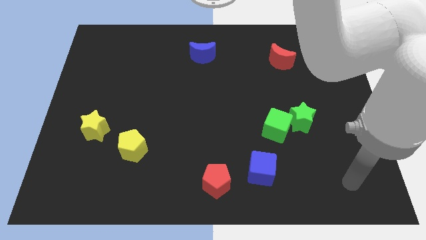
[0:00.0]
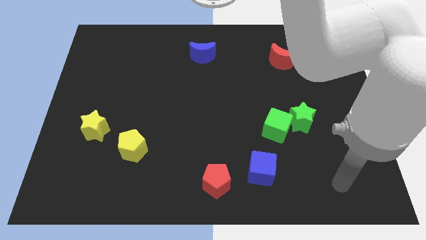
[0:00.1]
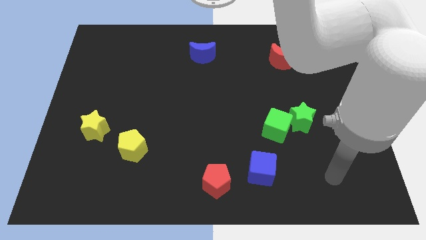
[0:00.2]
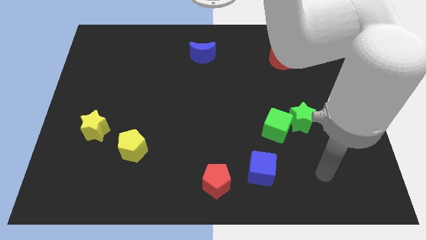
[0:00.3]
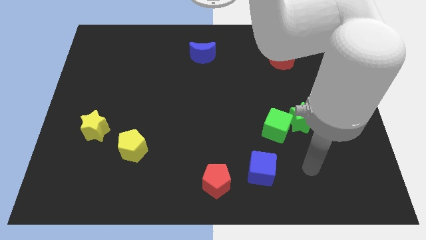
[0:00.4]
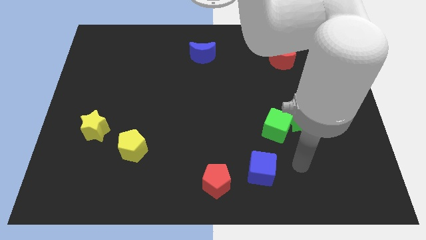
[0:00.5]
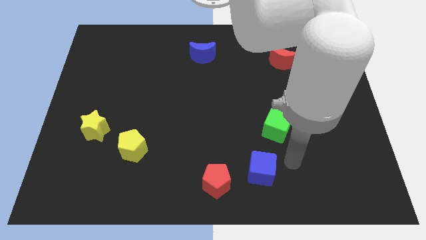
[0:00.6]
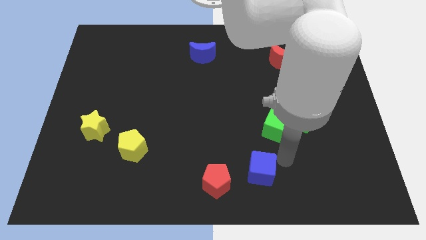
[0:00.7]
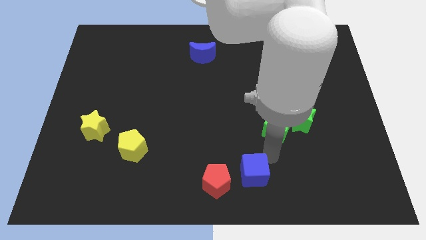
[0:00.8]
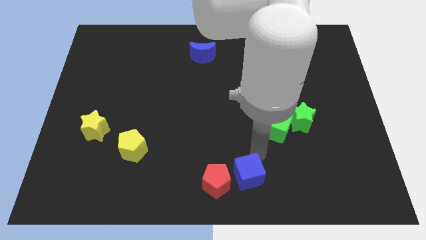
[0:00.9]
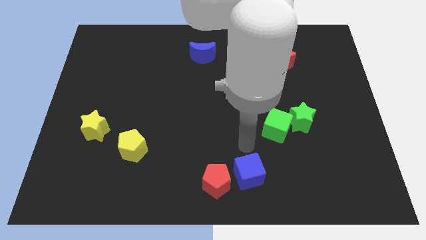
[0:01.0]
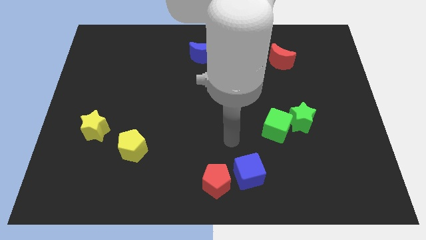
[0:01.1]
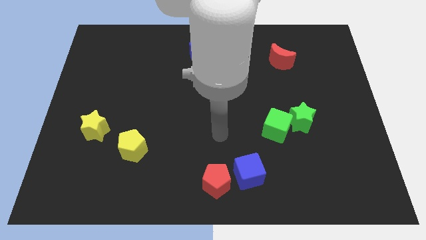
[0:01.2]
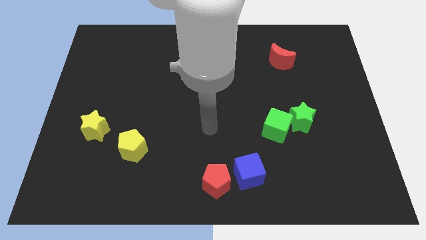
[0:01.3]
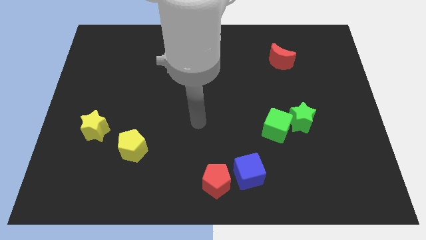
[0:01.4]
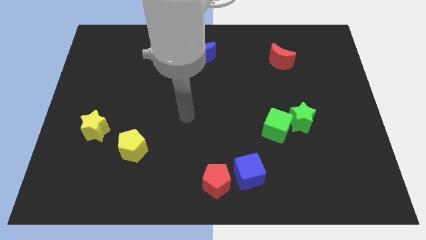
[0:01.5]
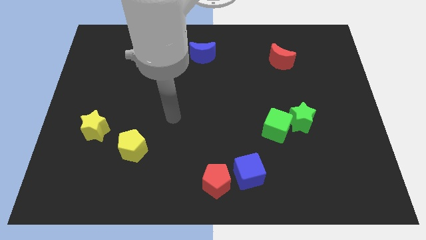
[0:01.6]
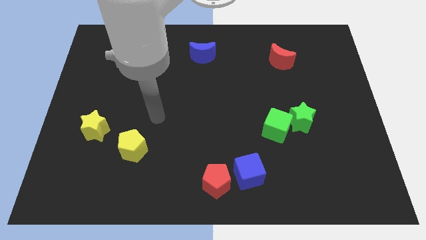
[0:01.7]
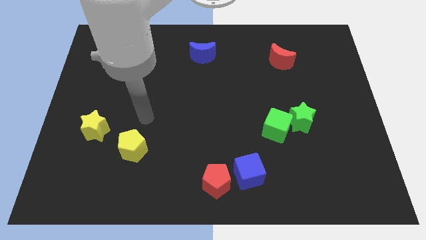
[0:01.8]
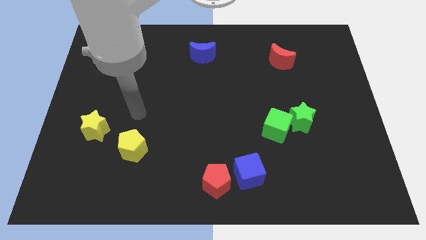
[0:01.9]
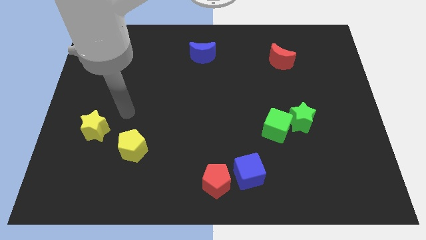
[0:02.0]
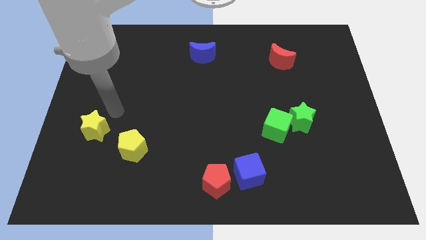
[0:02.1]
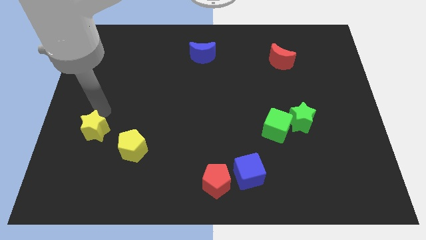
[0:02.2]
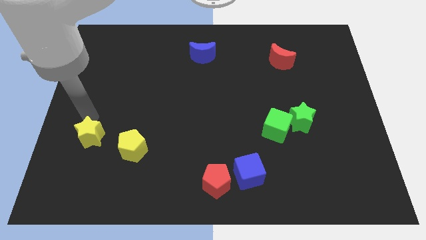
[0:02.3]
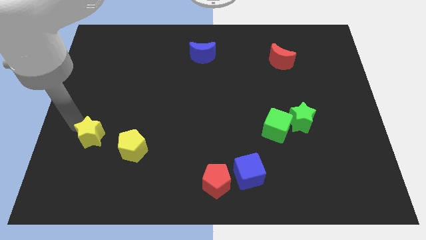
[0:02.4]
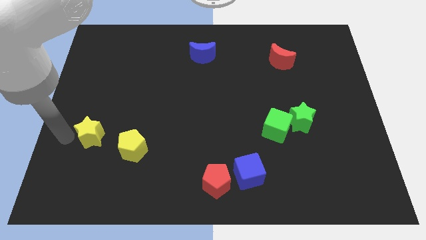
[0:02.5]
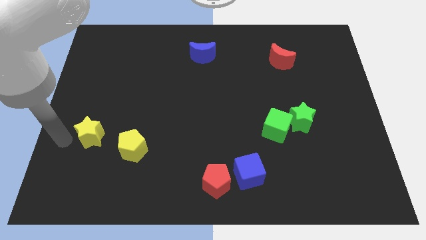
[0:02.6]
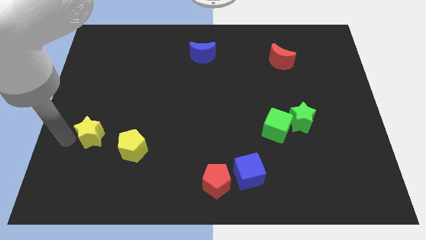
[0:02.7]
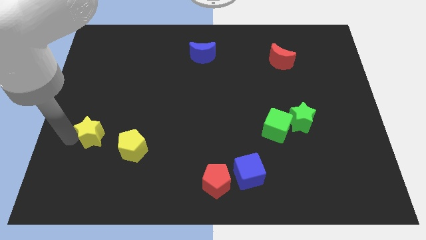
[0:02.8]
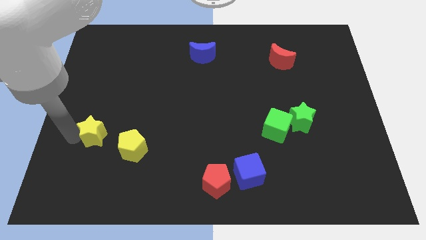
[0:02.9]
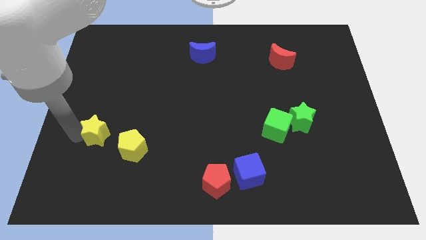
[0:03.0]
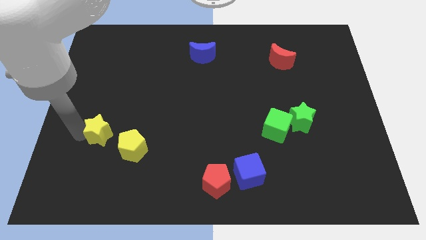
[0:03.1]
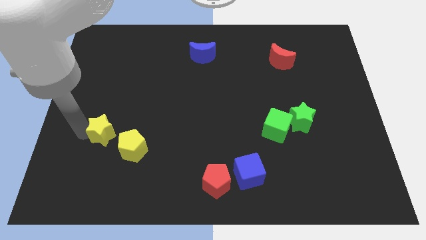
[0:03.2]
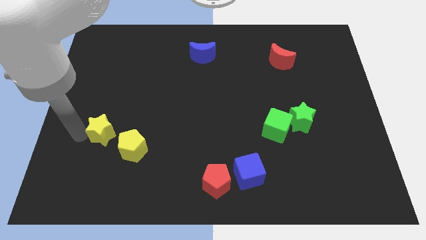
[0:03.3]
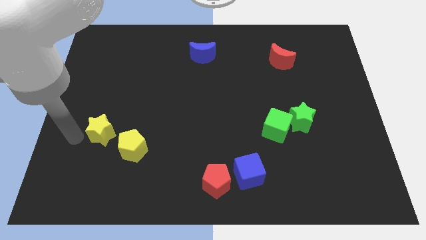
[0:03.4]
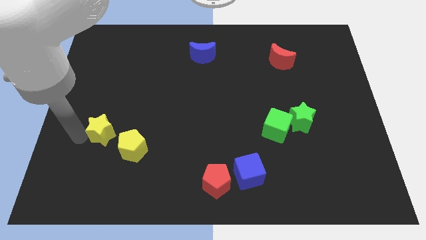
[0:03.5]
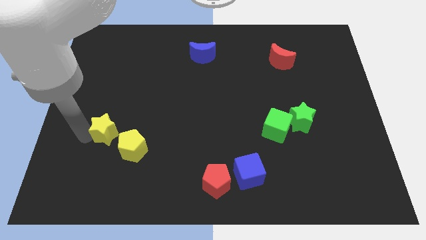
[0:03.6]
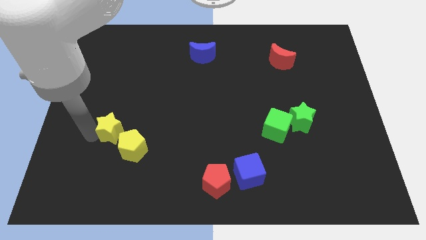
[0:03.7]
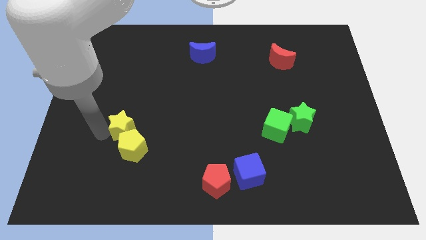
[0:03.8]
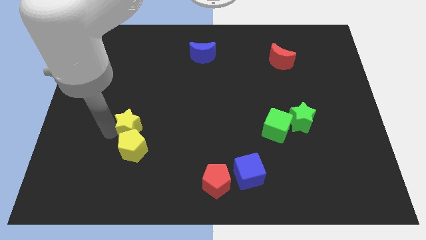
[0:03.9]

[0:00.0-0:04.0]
slightly move the yellow star right

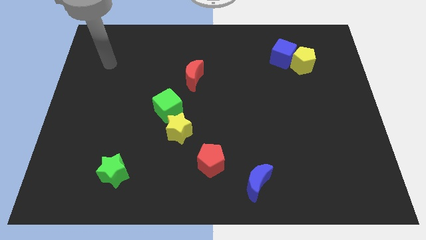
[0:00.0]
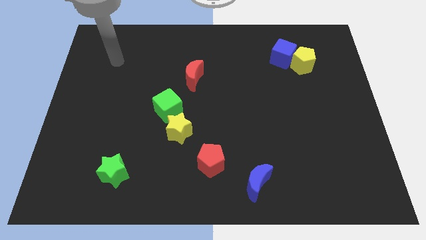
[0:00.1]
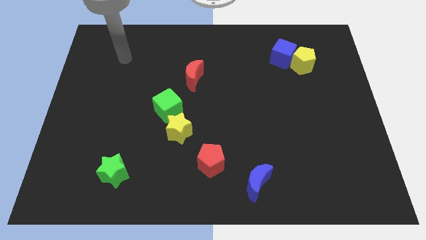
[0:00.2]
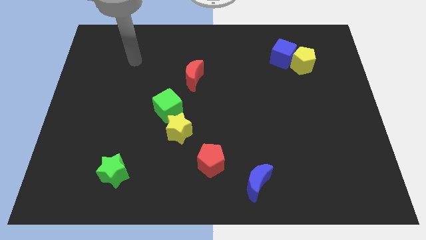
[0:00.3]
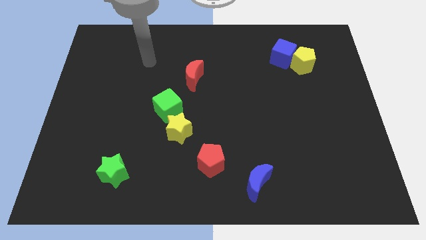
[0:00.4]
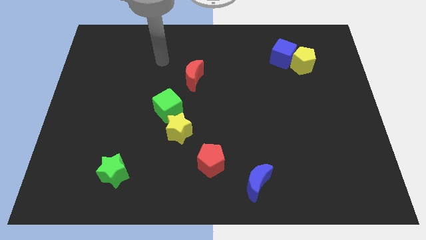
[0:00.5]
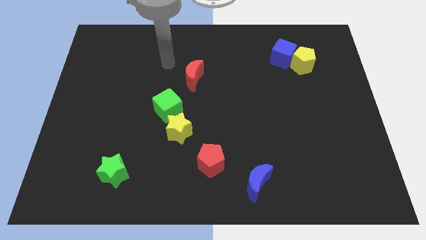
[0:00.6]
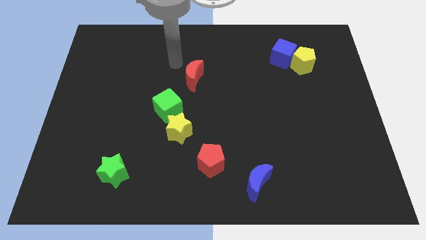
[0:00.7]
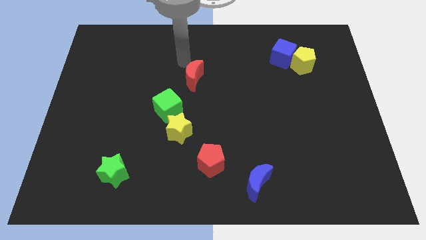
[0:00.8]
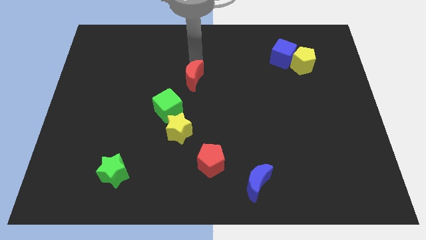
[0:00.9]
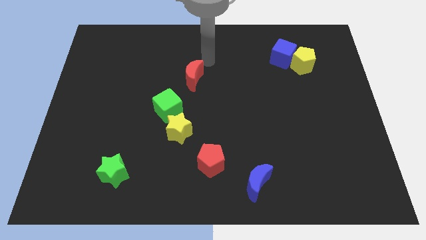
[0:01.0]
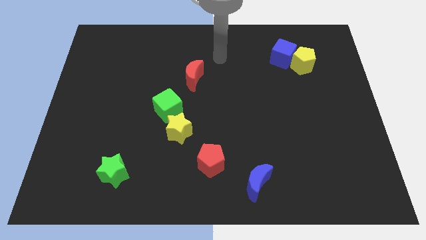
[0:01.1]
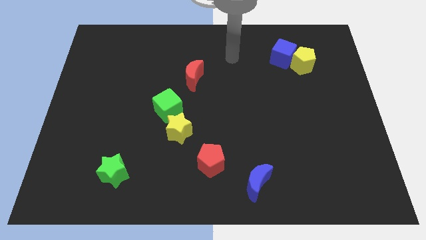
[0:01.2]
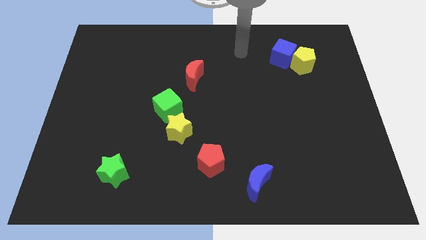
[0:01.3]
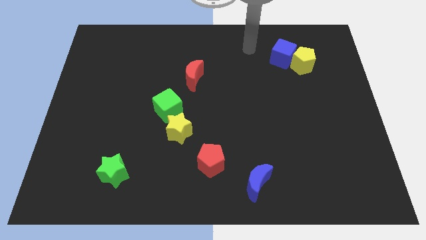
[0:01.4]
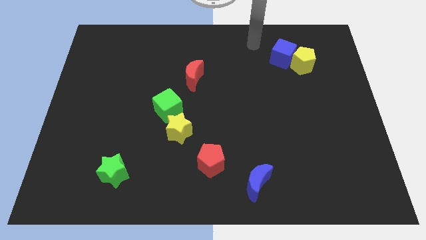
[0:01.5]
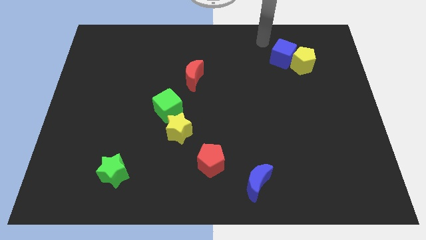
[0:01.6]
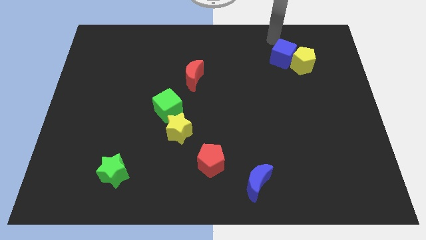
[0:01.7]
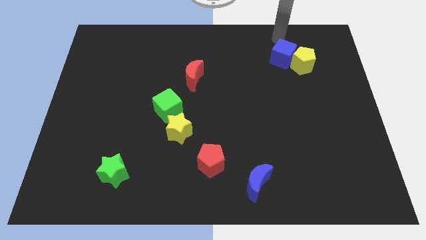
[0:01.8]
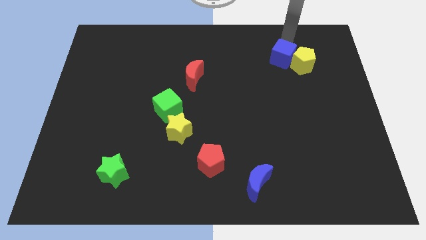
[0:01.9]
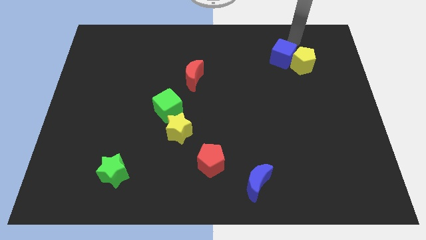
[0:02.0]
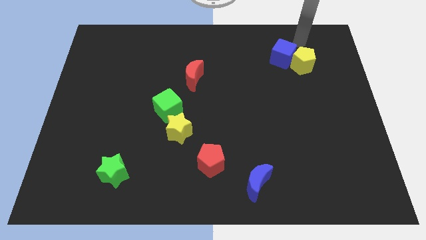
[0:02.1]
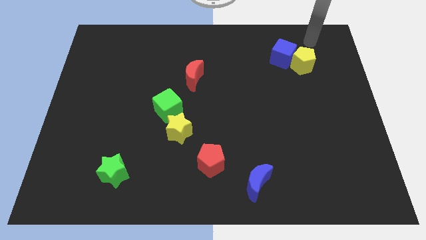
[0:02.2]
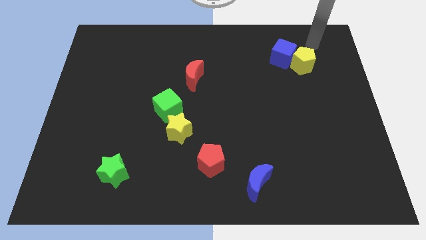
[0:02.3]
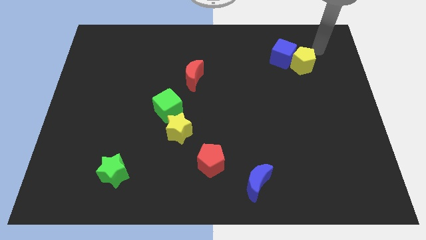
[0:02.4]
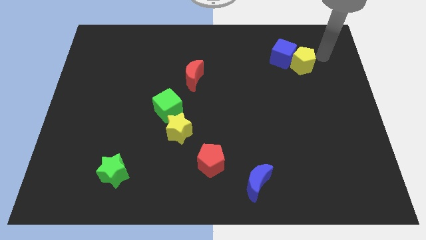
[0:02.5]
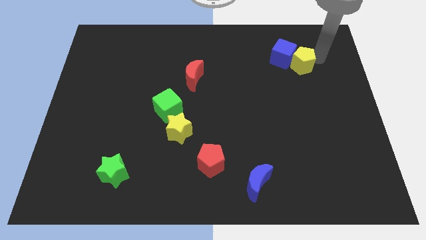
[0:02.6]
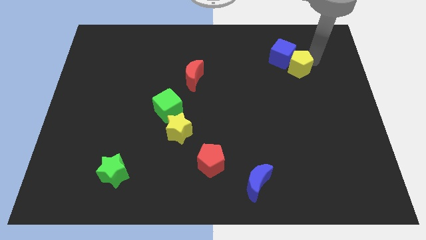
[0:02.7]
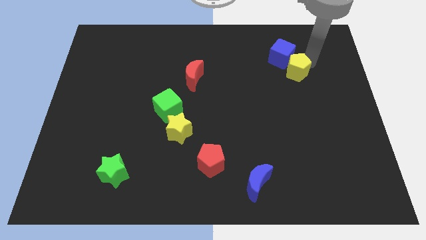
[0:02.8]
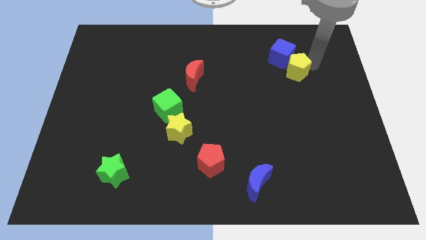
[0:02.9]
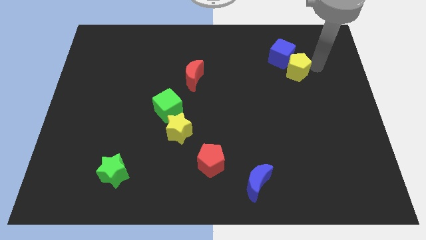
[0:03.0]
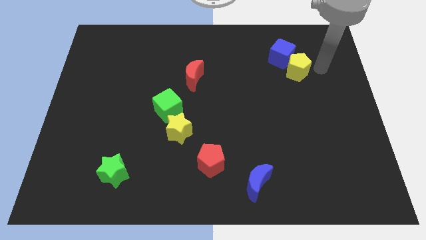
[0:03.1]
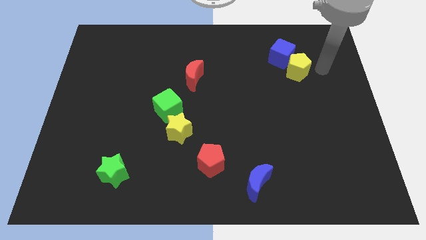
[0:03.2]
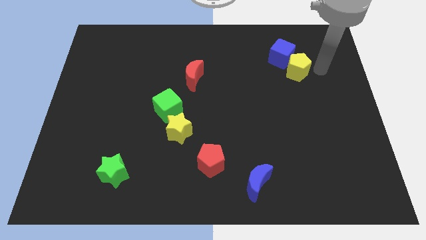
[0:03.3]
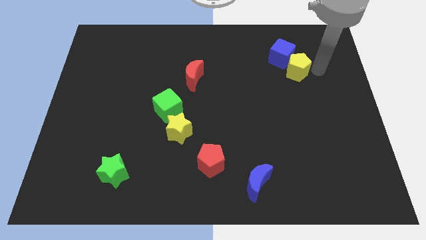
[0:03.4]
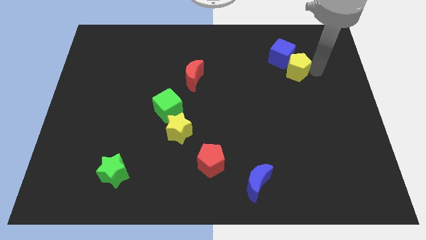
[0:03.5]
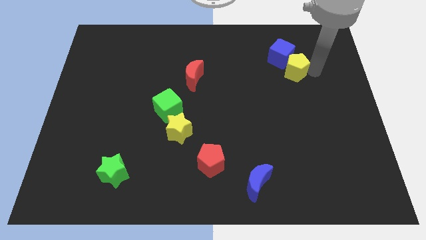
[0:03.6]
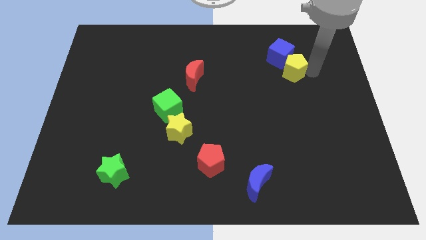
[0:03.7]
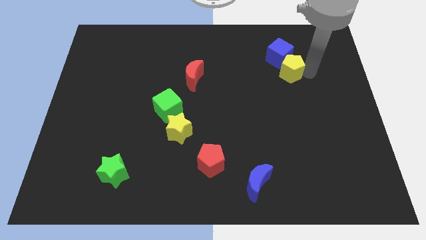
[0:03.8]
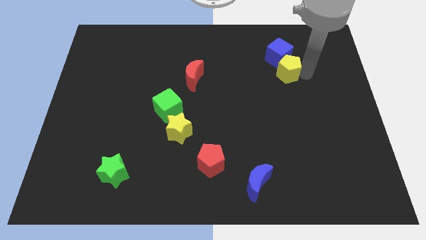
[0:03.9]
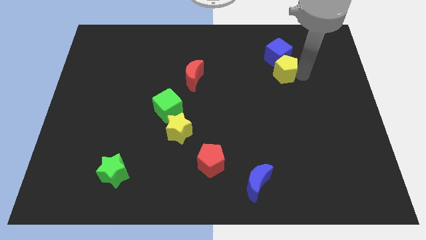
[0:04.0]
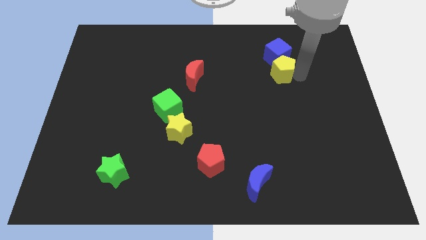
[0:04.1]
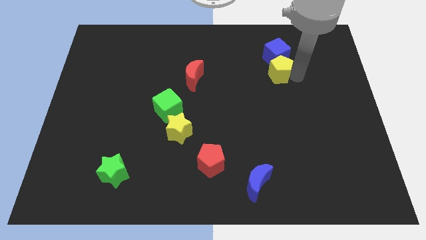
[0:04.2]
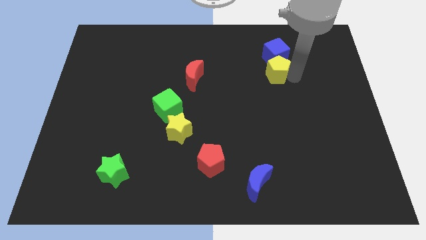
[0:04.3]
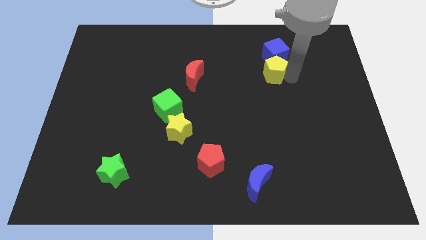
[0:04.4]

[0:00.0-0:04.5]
slightly push the yellow pentagon to the left
